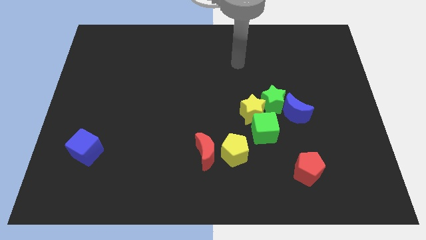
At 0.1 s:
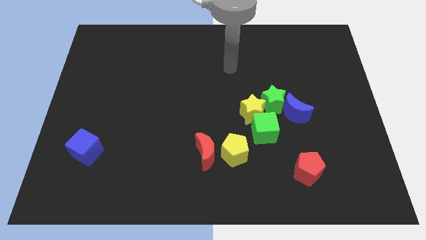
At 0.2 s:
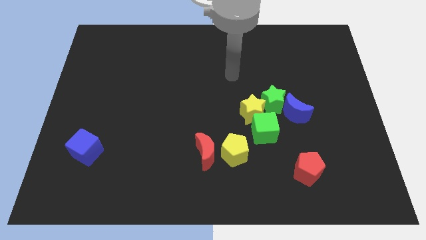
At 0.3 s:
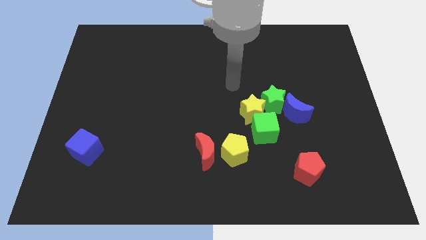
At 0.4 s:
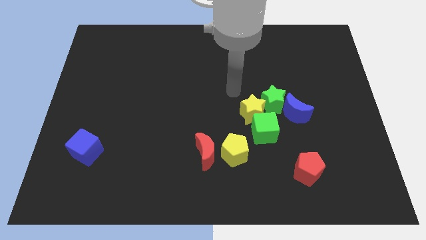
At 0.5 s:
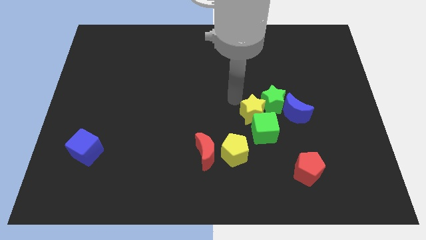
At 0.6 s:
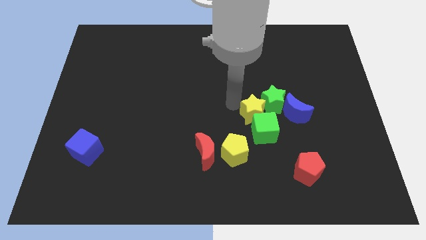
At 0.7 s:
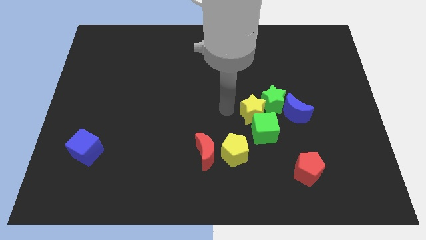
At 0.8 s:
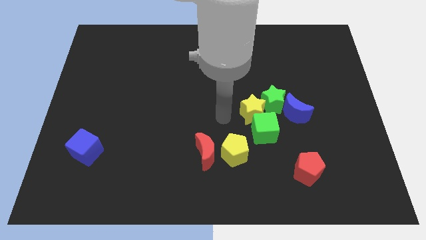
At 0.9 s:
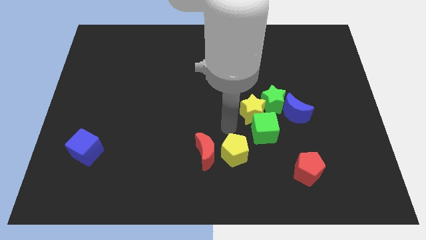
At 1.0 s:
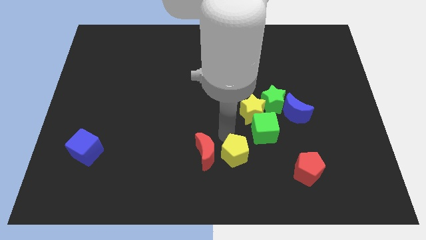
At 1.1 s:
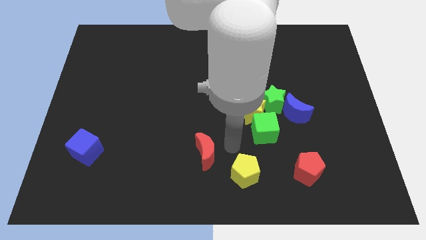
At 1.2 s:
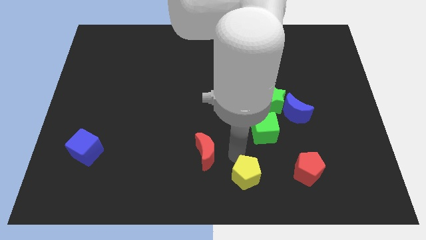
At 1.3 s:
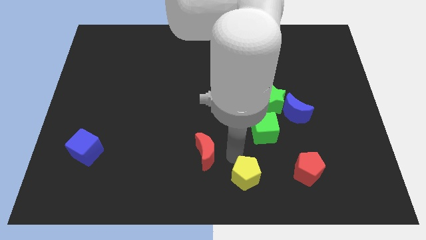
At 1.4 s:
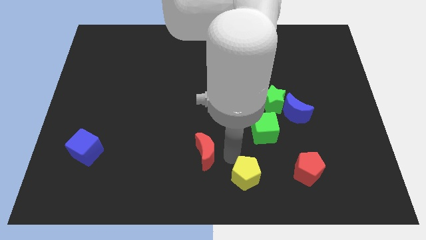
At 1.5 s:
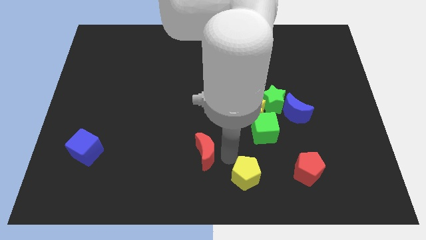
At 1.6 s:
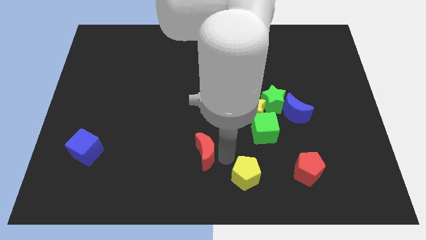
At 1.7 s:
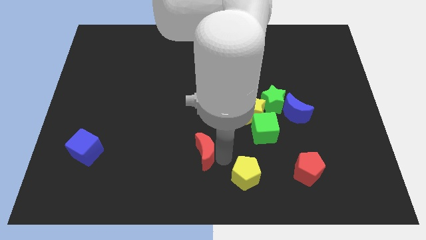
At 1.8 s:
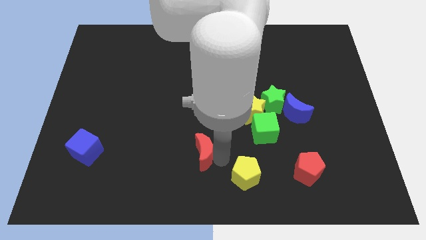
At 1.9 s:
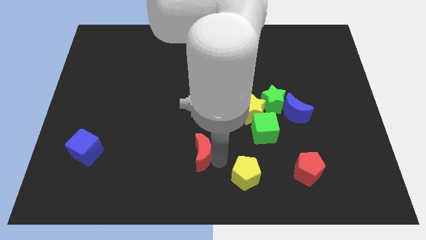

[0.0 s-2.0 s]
pull the red moon apart from the yellow pentagon

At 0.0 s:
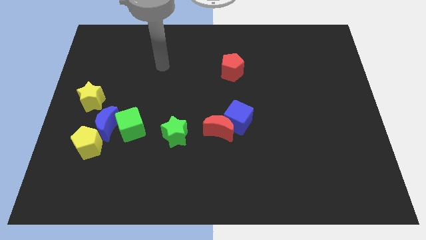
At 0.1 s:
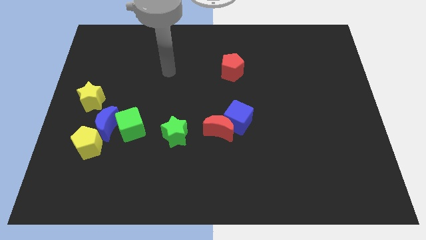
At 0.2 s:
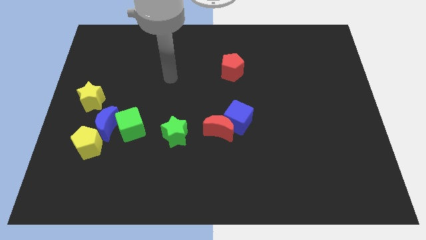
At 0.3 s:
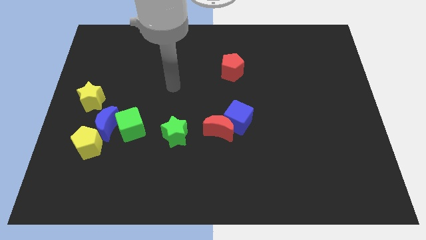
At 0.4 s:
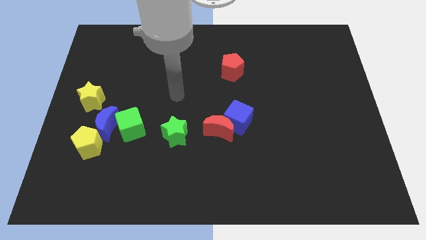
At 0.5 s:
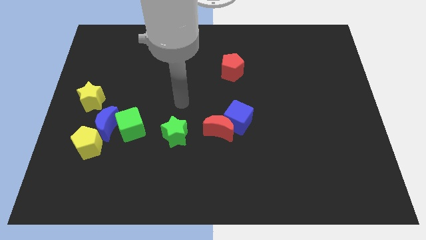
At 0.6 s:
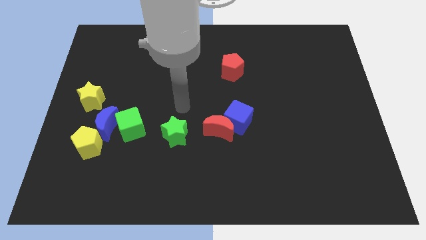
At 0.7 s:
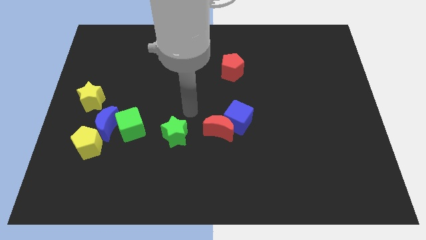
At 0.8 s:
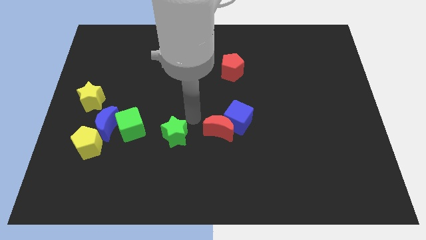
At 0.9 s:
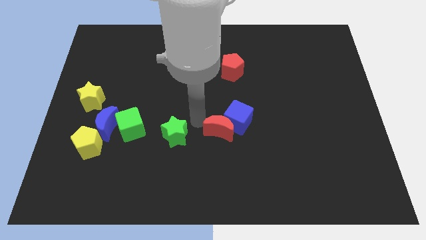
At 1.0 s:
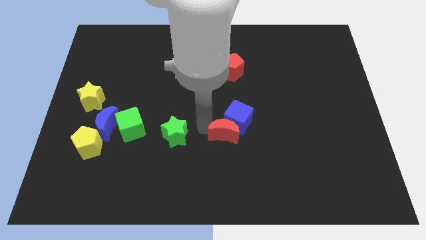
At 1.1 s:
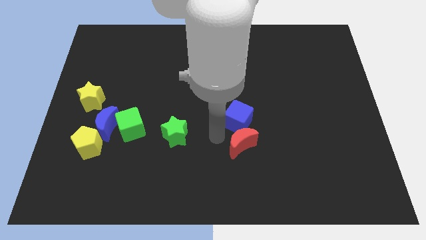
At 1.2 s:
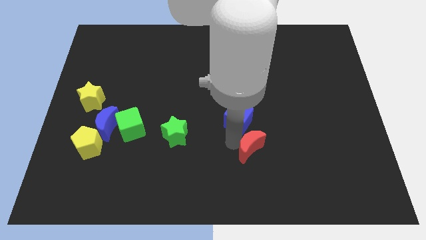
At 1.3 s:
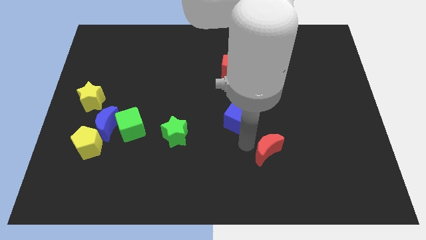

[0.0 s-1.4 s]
move the blue cube away from the red moon

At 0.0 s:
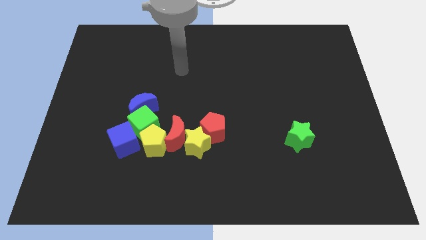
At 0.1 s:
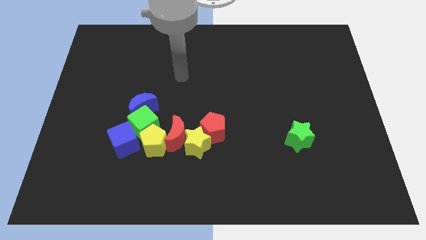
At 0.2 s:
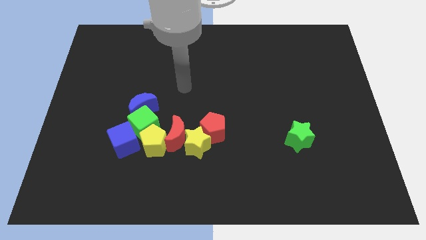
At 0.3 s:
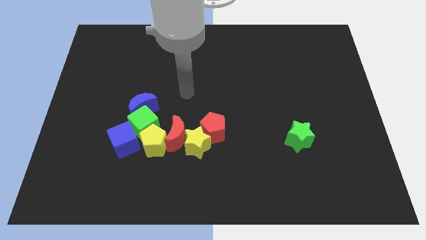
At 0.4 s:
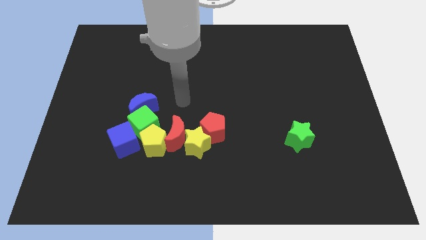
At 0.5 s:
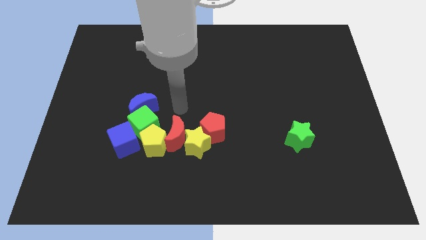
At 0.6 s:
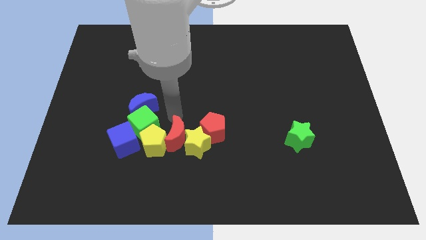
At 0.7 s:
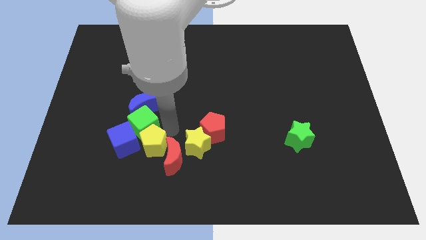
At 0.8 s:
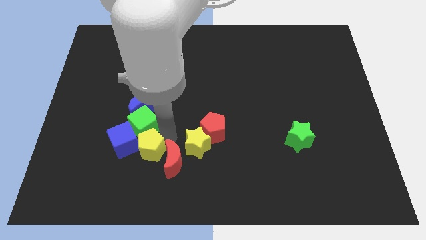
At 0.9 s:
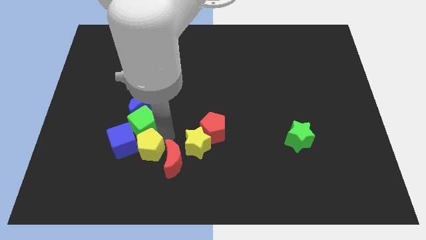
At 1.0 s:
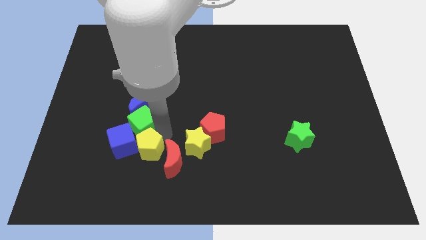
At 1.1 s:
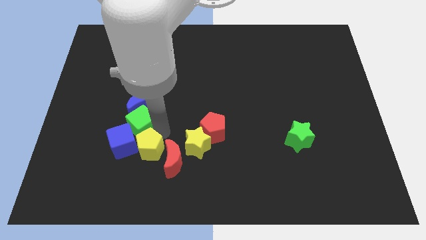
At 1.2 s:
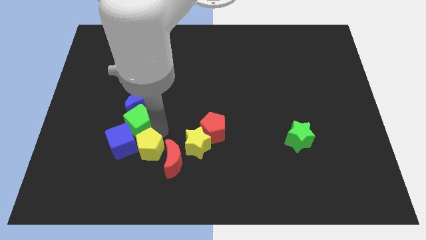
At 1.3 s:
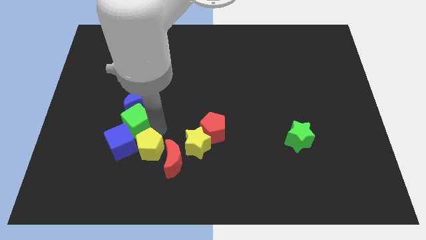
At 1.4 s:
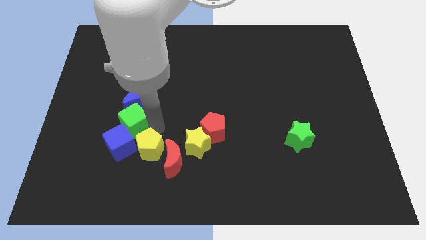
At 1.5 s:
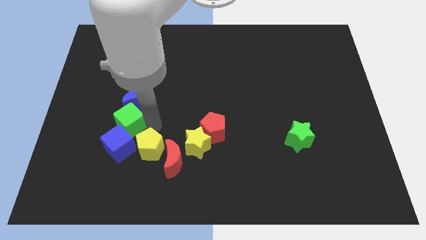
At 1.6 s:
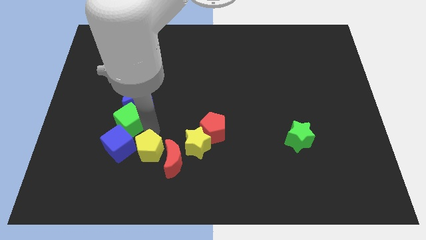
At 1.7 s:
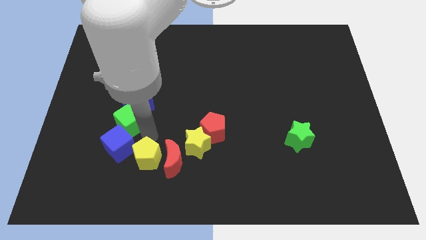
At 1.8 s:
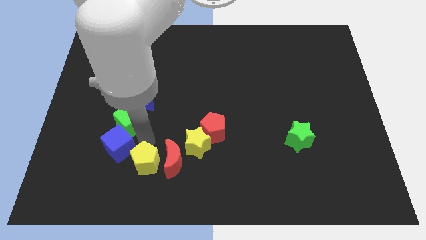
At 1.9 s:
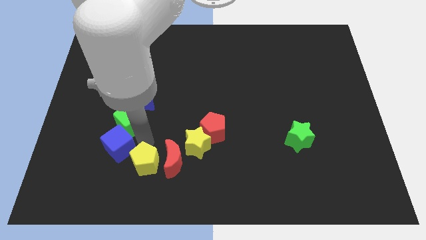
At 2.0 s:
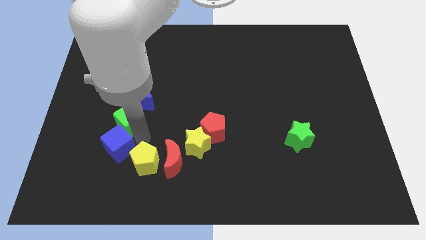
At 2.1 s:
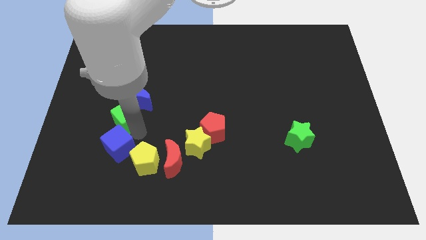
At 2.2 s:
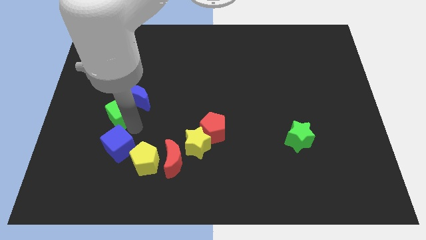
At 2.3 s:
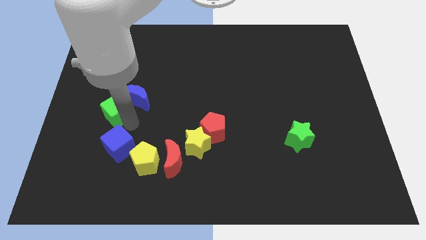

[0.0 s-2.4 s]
move the green cube away from the clump

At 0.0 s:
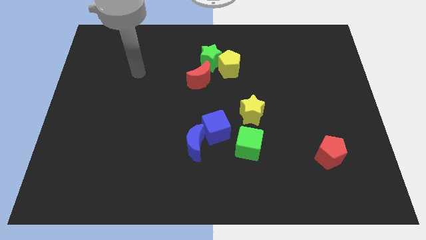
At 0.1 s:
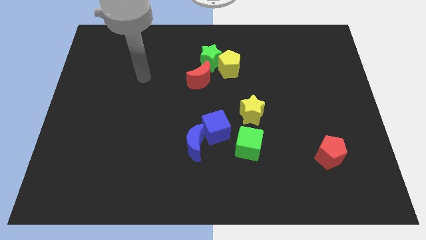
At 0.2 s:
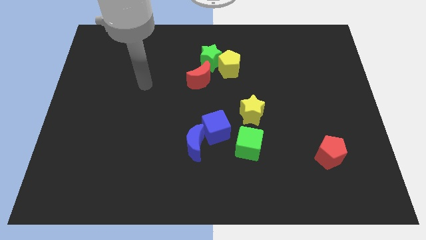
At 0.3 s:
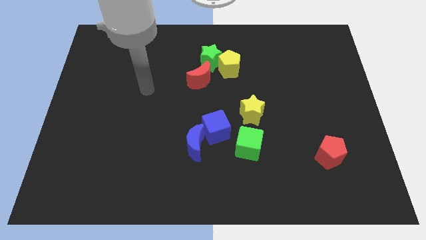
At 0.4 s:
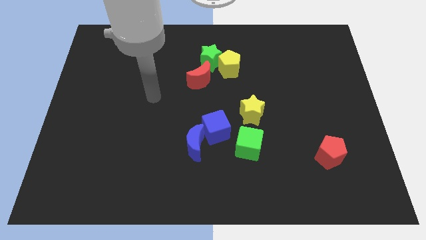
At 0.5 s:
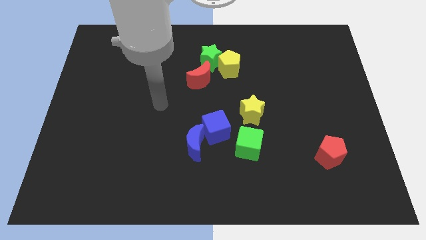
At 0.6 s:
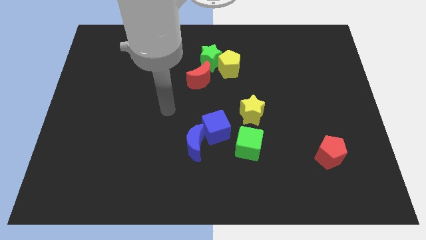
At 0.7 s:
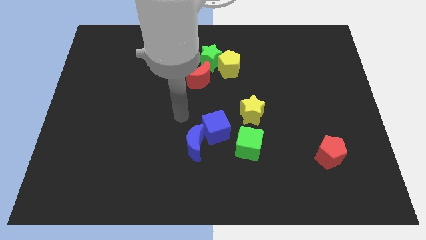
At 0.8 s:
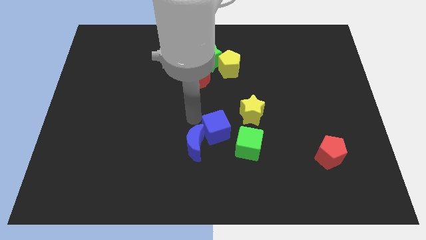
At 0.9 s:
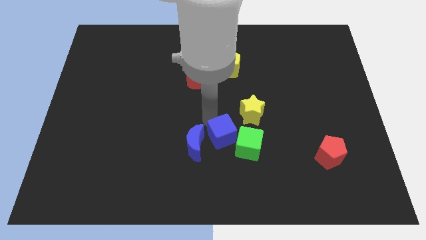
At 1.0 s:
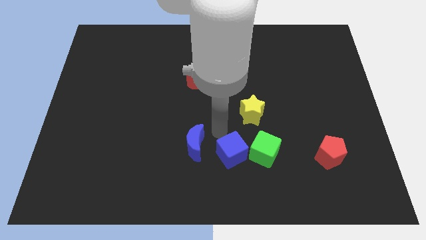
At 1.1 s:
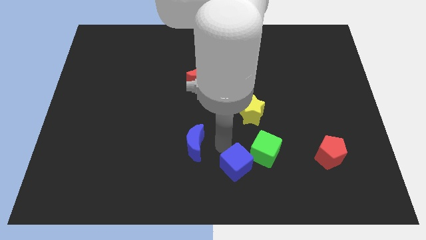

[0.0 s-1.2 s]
move the blue moon away from the blue cube

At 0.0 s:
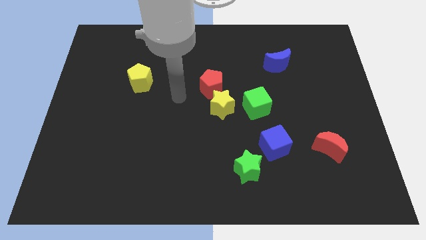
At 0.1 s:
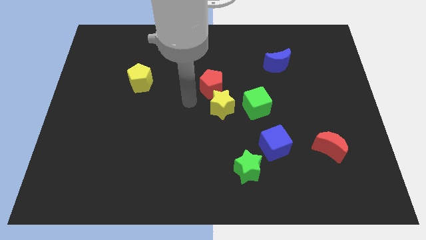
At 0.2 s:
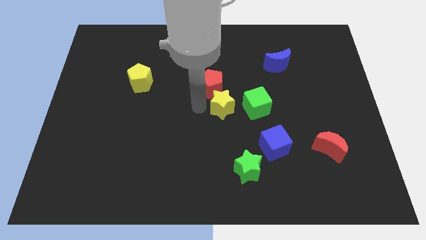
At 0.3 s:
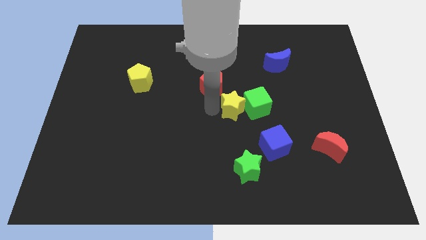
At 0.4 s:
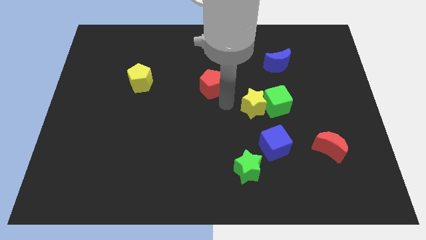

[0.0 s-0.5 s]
pull the red pentagon apart from the yellow star

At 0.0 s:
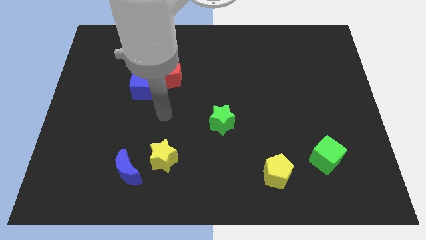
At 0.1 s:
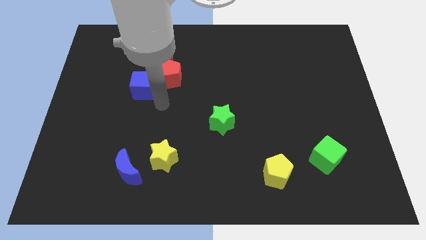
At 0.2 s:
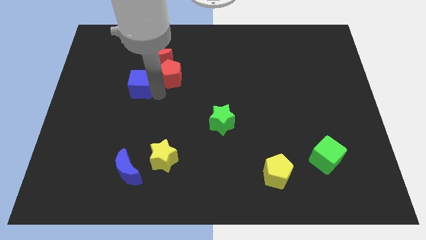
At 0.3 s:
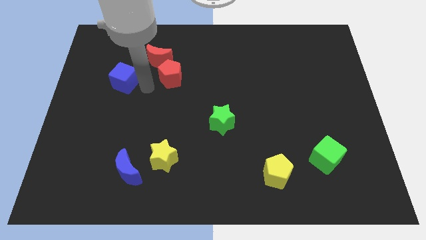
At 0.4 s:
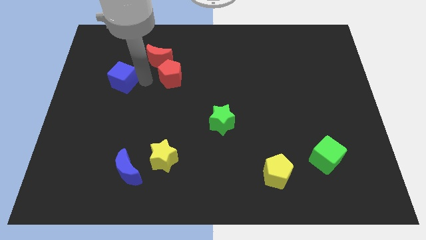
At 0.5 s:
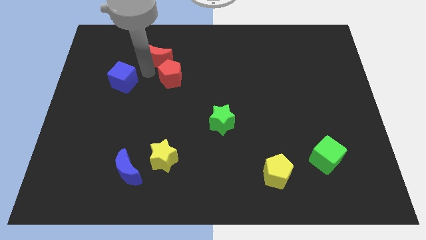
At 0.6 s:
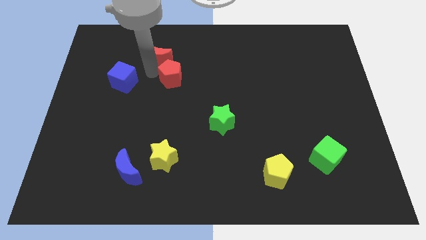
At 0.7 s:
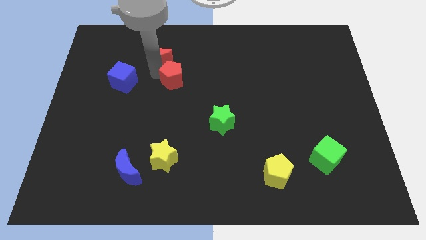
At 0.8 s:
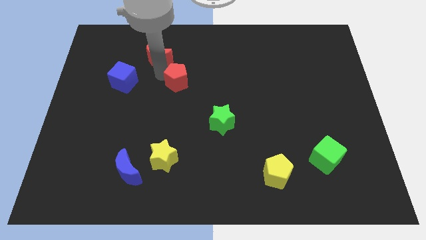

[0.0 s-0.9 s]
move the red pentagon away from the red moon and blue cube

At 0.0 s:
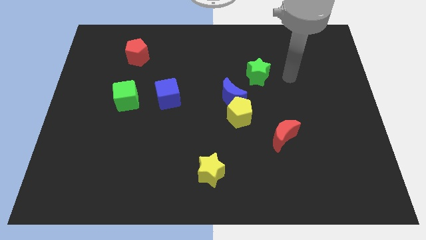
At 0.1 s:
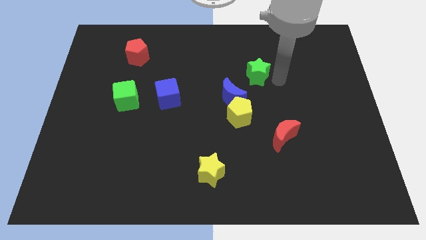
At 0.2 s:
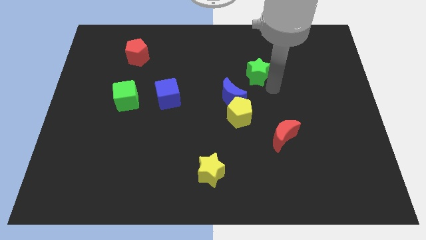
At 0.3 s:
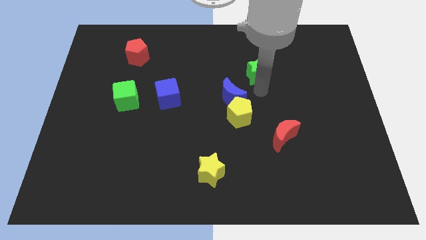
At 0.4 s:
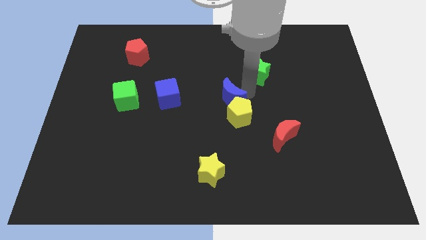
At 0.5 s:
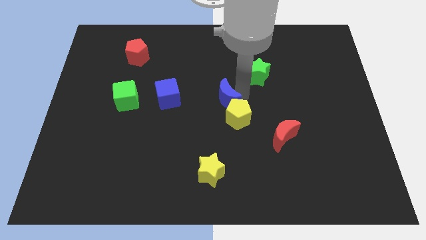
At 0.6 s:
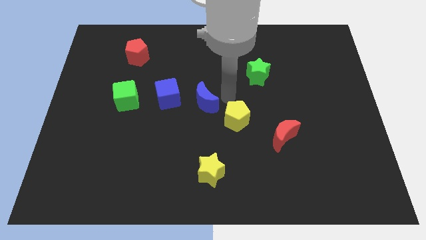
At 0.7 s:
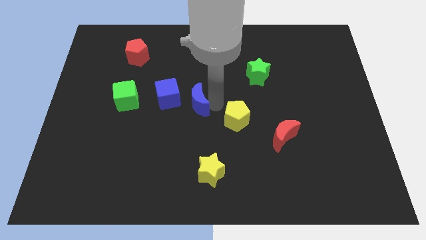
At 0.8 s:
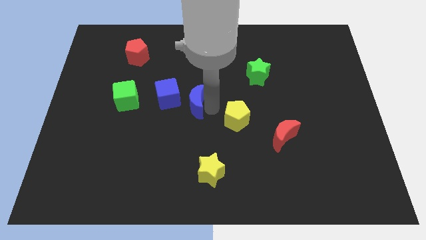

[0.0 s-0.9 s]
separate the yellow pentagon from the blue moon
